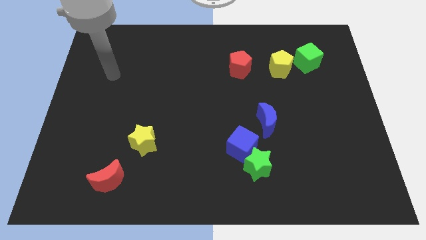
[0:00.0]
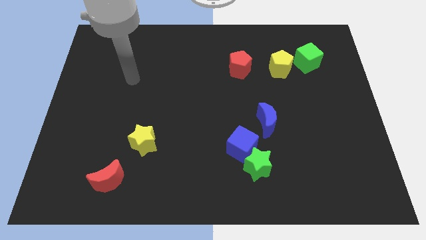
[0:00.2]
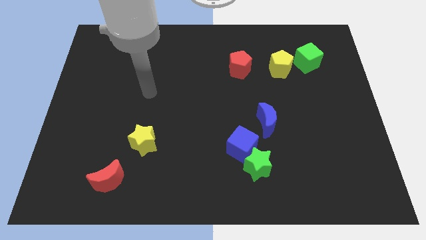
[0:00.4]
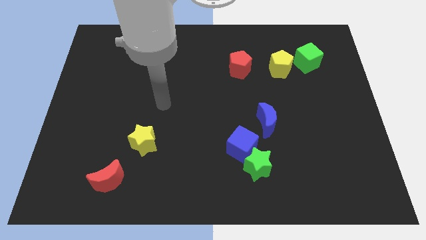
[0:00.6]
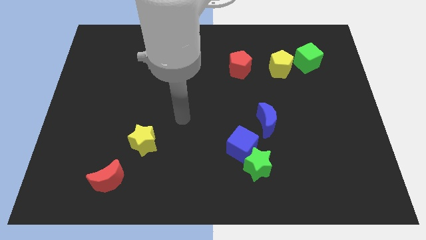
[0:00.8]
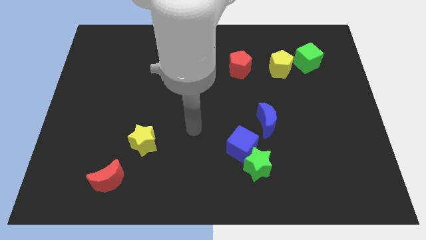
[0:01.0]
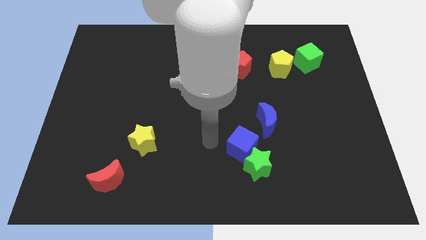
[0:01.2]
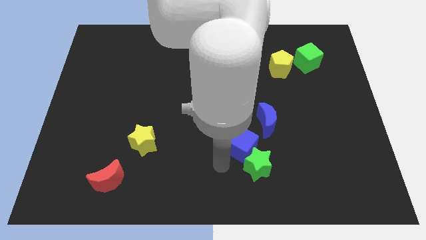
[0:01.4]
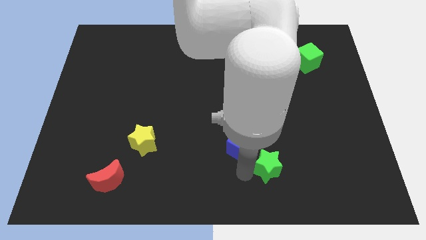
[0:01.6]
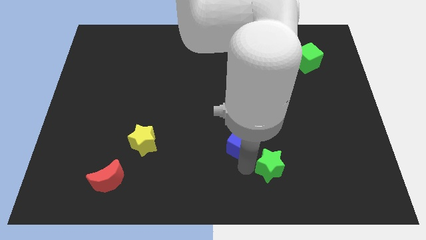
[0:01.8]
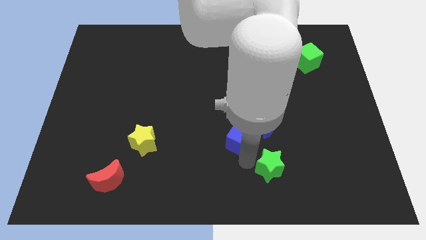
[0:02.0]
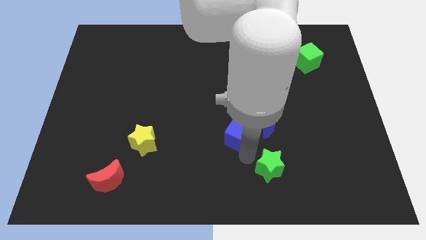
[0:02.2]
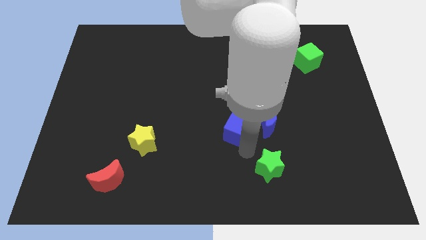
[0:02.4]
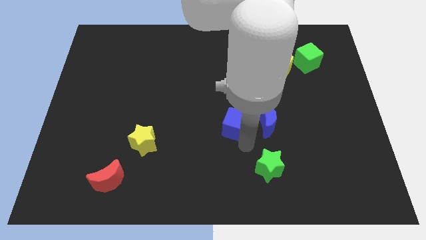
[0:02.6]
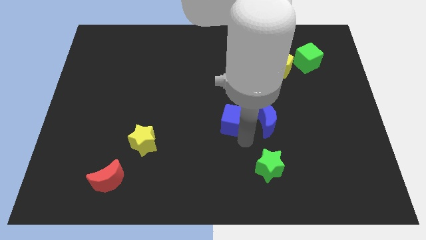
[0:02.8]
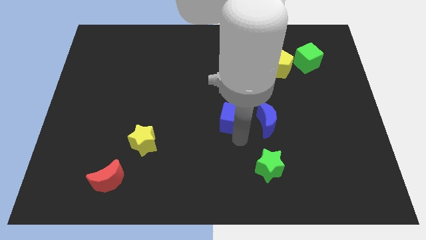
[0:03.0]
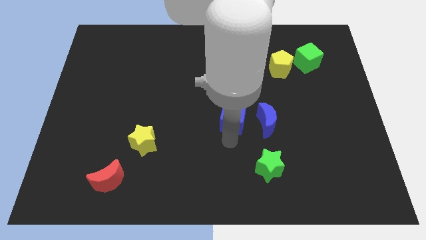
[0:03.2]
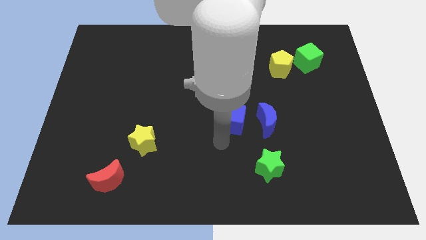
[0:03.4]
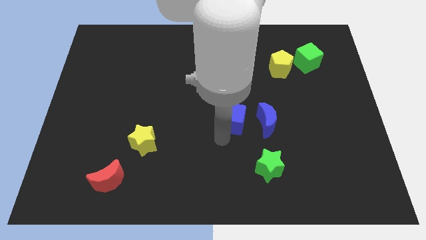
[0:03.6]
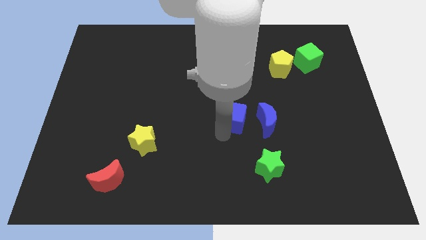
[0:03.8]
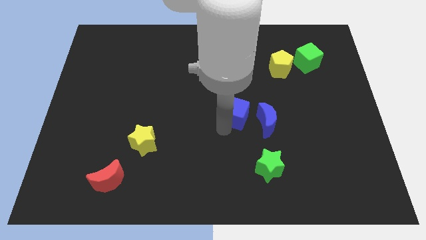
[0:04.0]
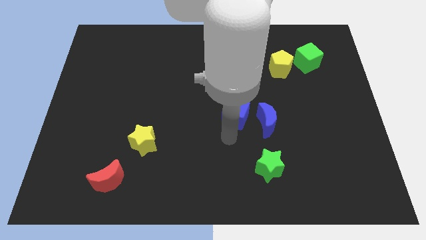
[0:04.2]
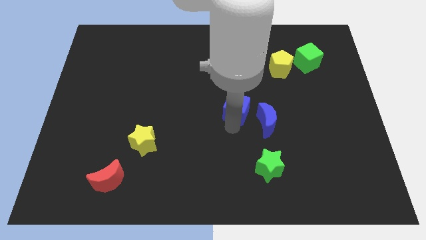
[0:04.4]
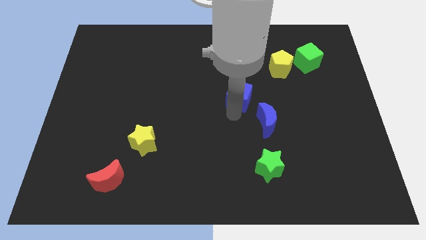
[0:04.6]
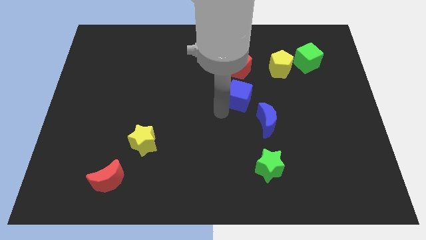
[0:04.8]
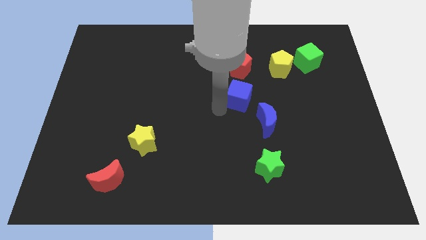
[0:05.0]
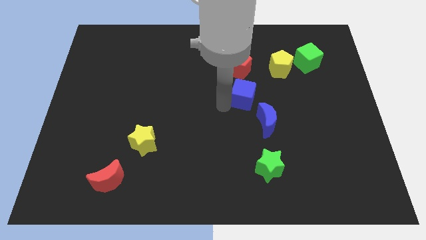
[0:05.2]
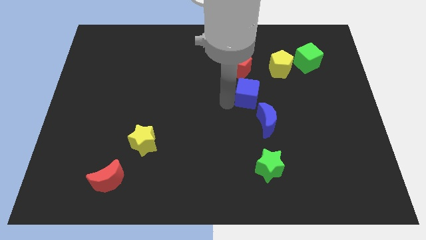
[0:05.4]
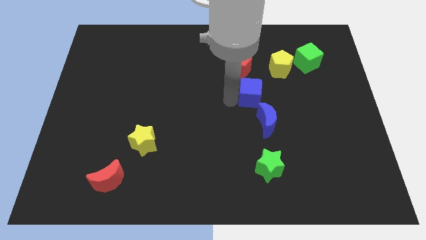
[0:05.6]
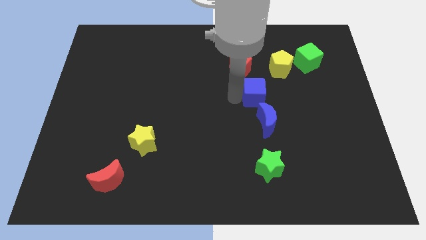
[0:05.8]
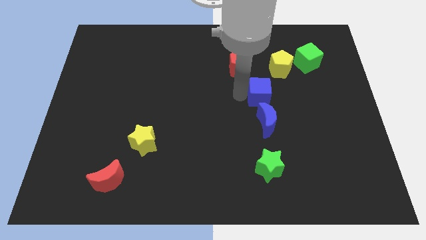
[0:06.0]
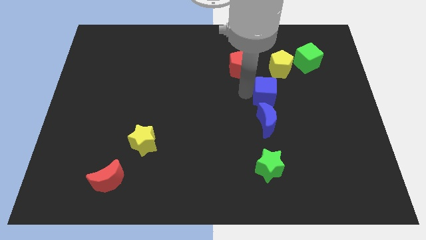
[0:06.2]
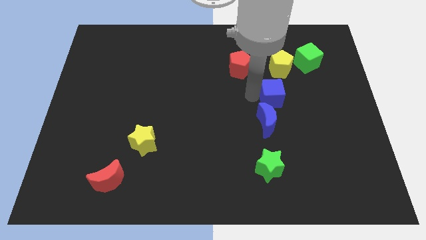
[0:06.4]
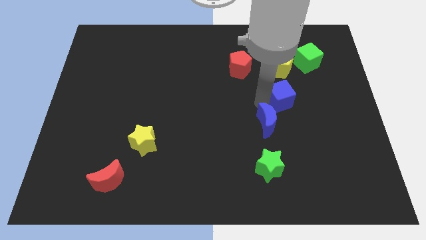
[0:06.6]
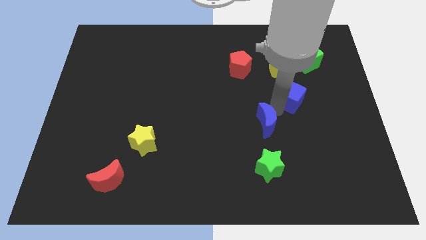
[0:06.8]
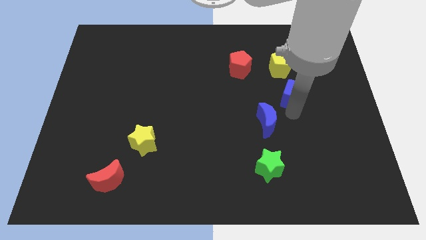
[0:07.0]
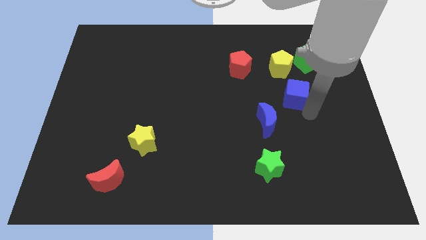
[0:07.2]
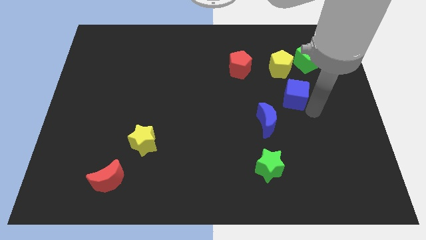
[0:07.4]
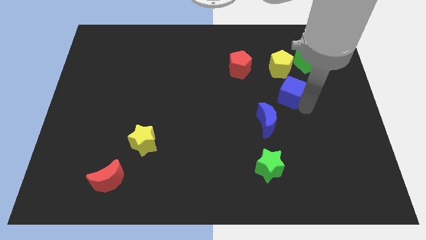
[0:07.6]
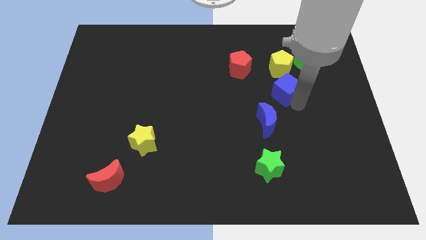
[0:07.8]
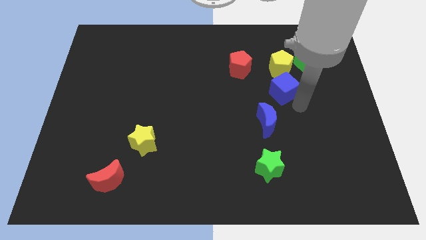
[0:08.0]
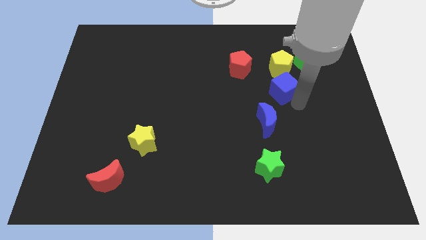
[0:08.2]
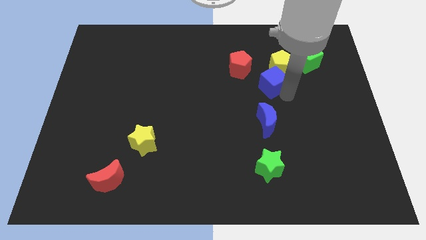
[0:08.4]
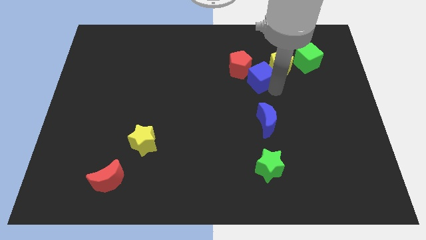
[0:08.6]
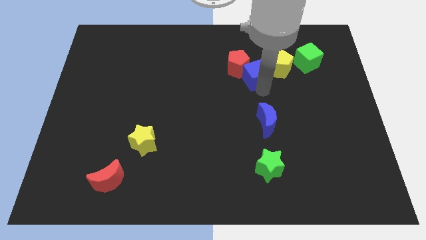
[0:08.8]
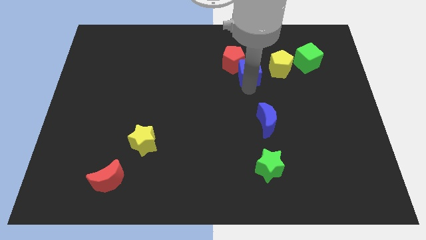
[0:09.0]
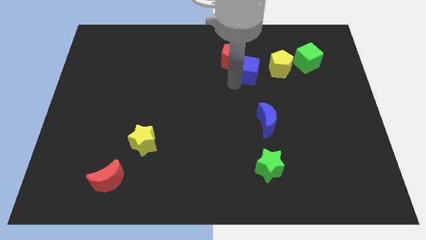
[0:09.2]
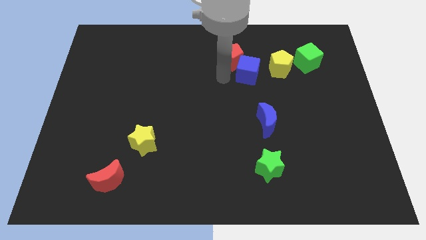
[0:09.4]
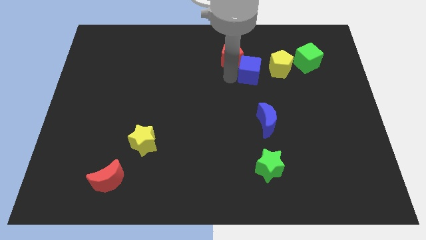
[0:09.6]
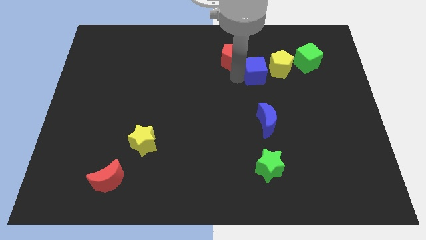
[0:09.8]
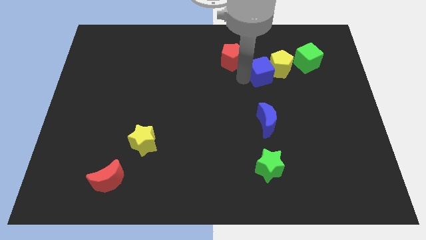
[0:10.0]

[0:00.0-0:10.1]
push the blue cube close to the yellow pentagon
